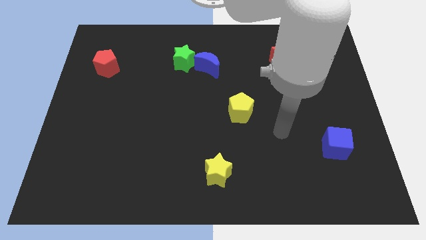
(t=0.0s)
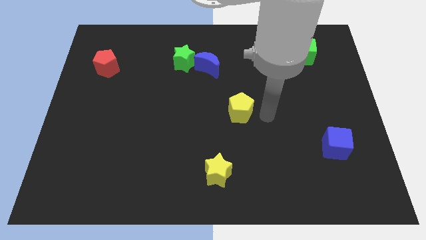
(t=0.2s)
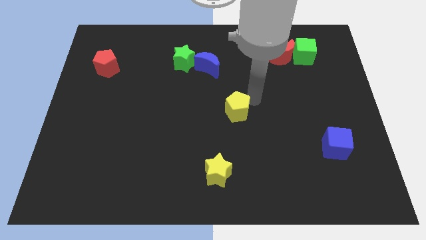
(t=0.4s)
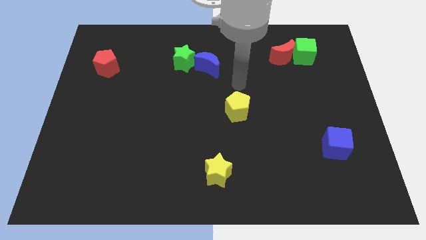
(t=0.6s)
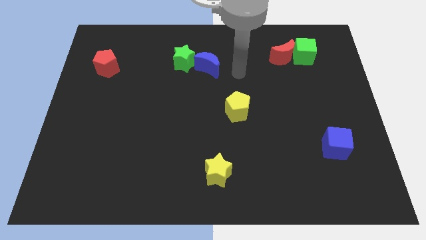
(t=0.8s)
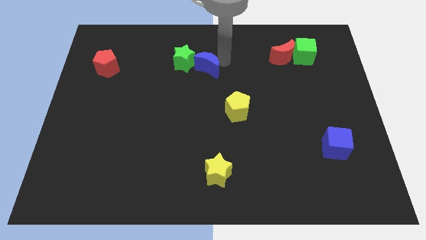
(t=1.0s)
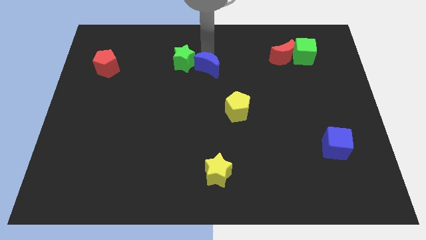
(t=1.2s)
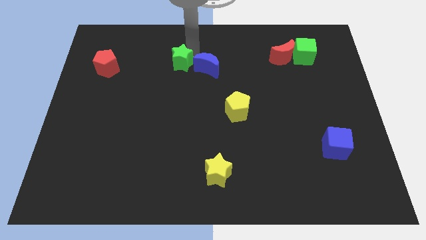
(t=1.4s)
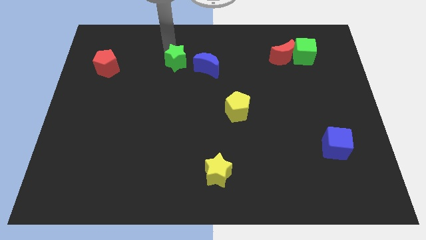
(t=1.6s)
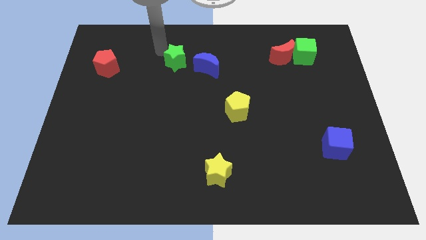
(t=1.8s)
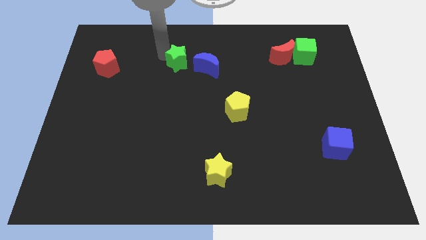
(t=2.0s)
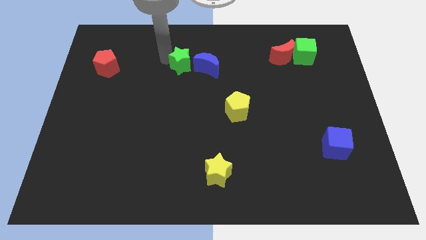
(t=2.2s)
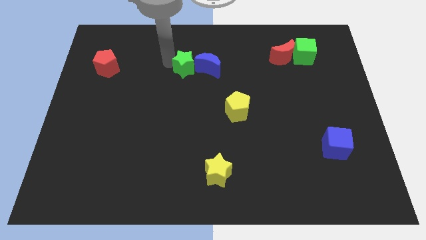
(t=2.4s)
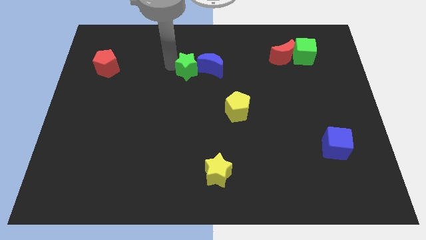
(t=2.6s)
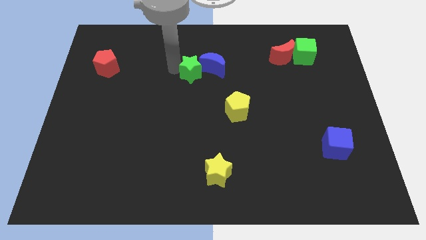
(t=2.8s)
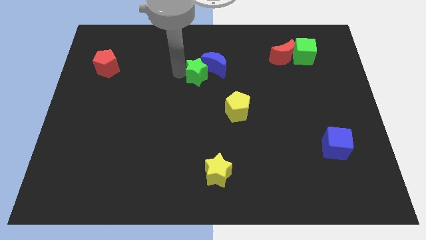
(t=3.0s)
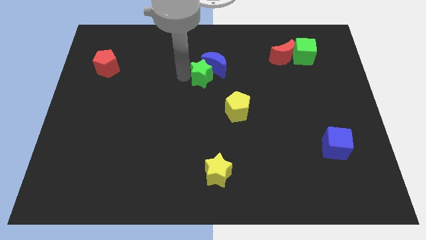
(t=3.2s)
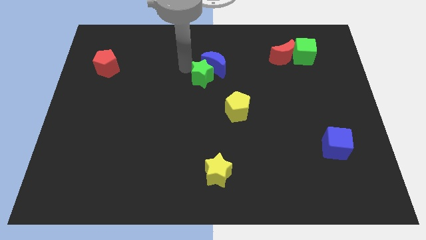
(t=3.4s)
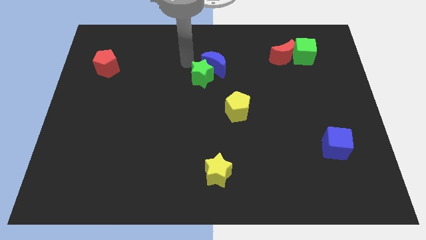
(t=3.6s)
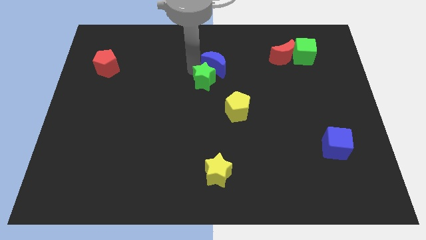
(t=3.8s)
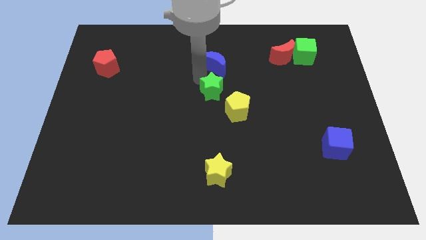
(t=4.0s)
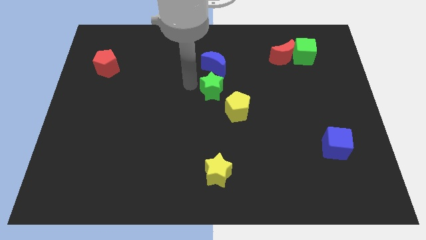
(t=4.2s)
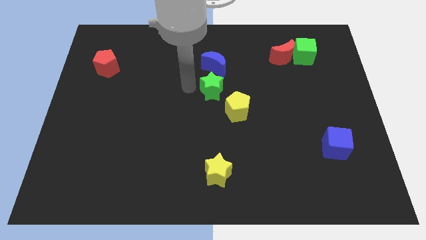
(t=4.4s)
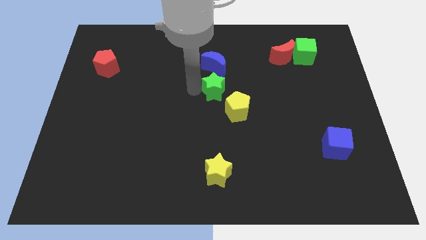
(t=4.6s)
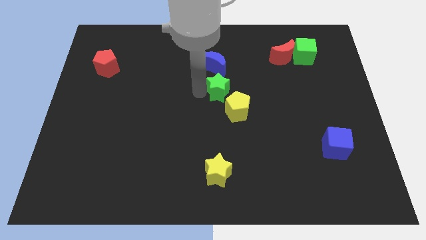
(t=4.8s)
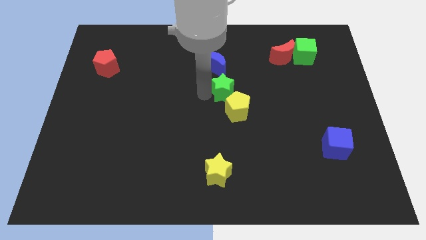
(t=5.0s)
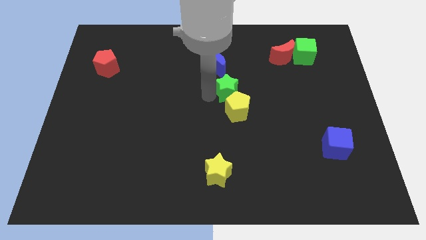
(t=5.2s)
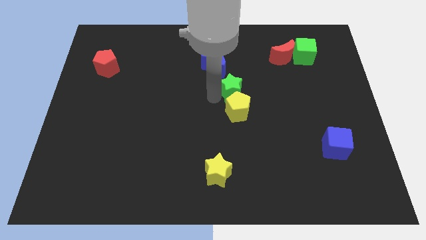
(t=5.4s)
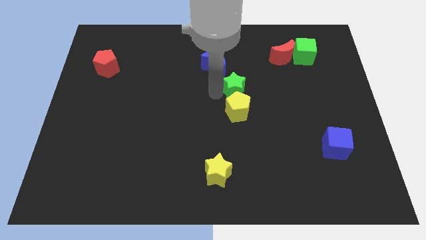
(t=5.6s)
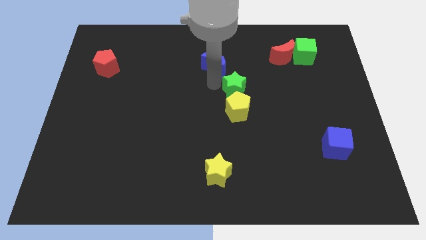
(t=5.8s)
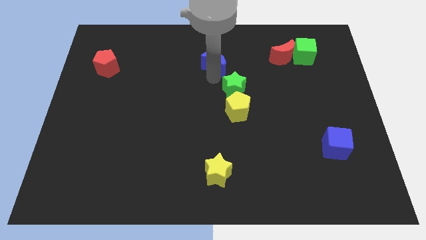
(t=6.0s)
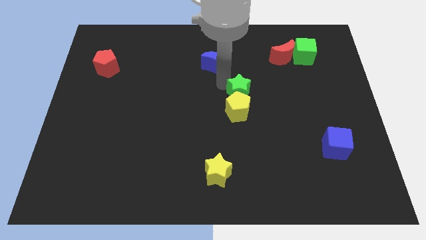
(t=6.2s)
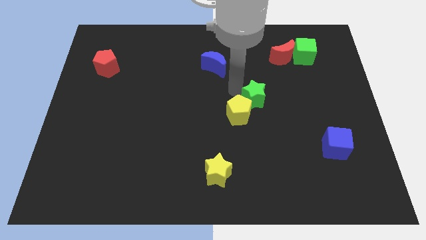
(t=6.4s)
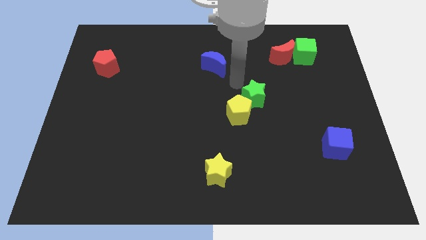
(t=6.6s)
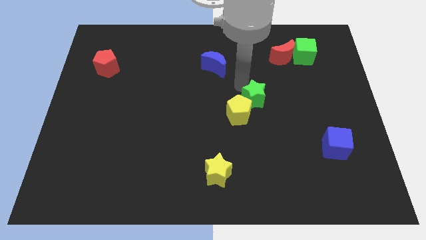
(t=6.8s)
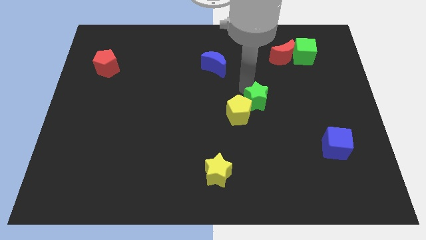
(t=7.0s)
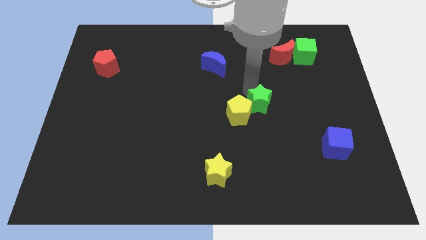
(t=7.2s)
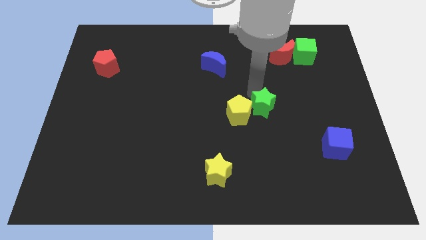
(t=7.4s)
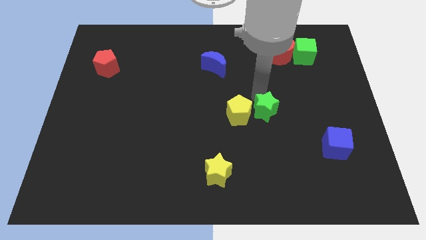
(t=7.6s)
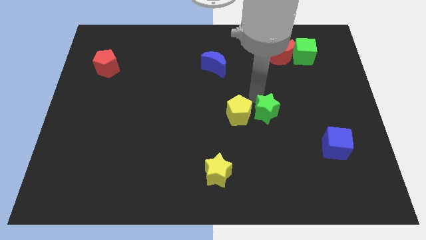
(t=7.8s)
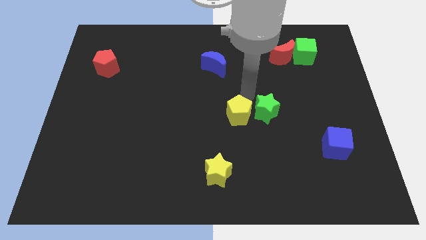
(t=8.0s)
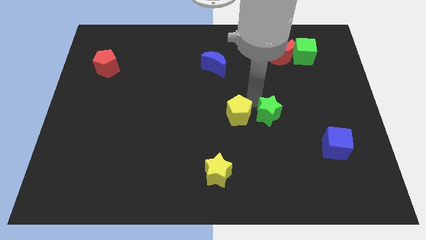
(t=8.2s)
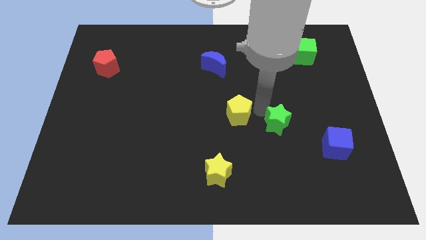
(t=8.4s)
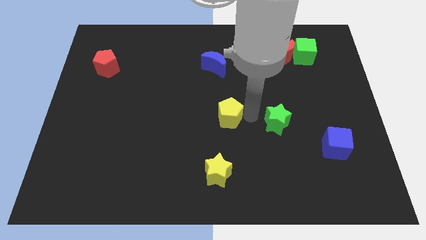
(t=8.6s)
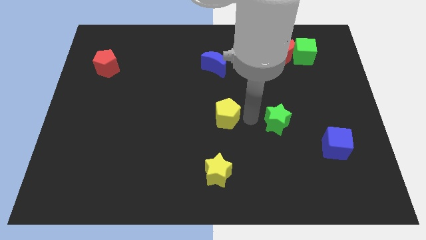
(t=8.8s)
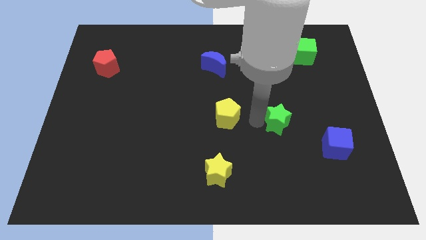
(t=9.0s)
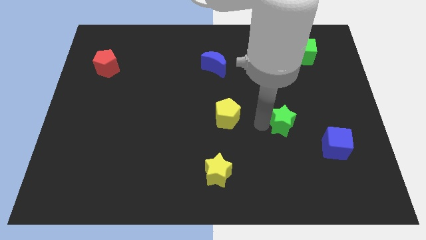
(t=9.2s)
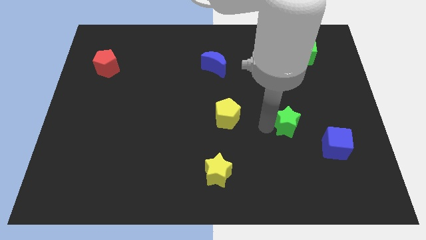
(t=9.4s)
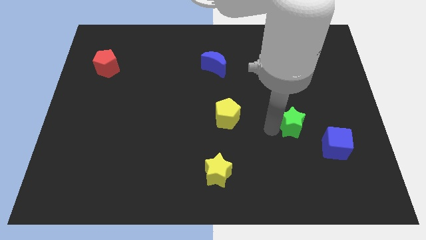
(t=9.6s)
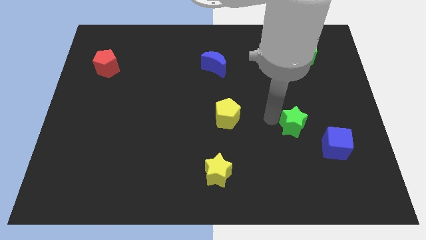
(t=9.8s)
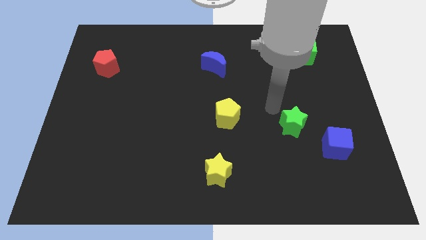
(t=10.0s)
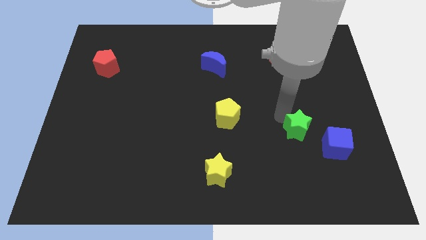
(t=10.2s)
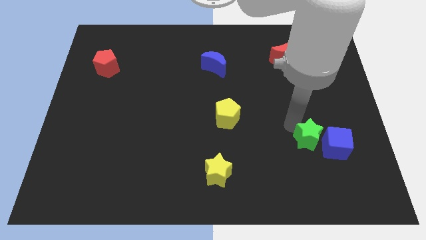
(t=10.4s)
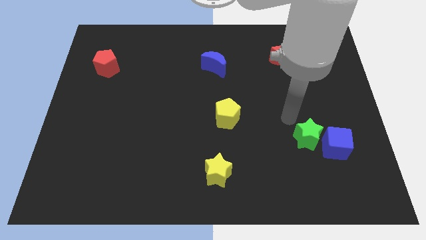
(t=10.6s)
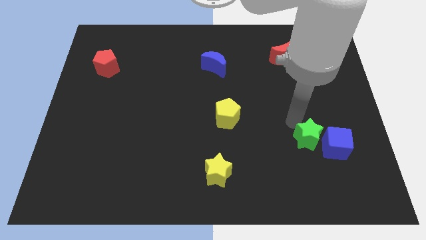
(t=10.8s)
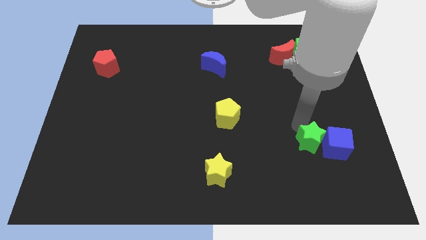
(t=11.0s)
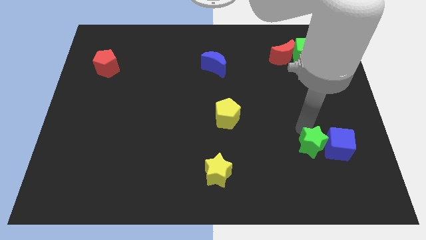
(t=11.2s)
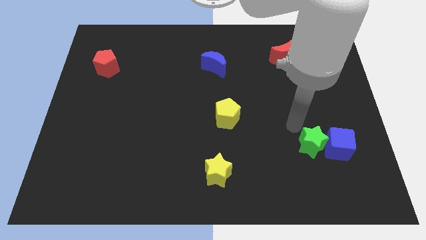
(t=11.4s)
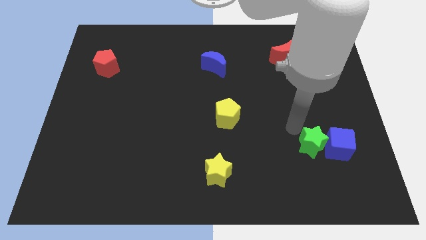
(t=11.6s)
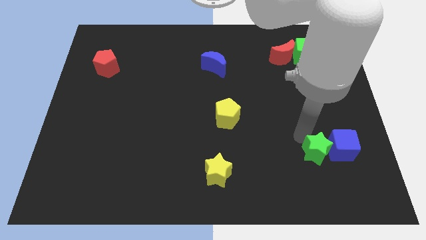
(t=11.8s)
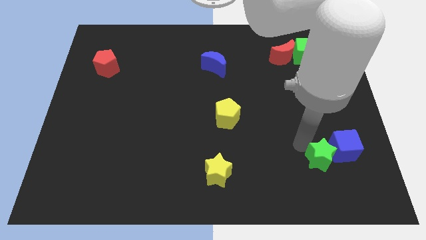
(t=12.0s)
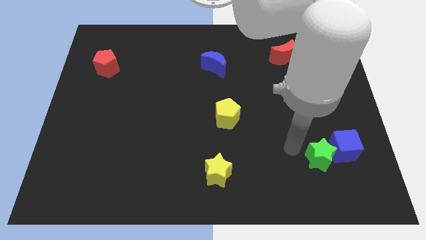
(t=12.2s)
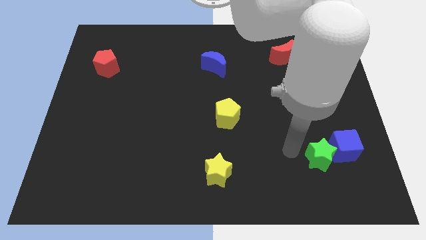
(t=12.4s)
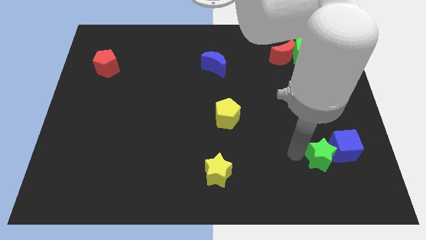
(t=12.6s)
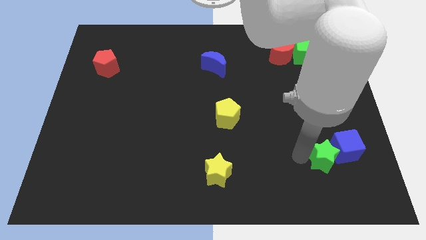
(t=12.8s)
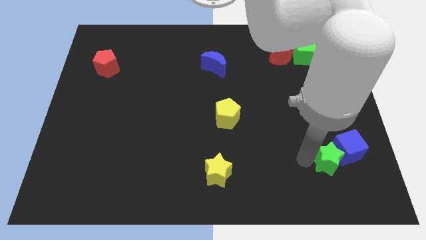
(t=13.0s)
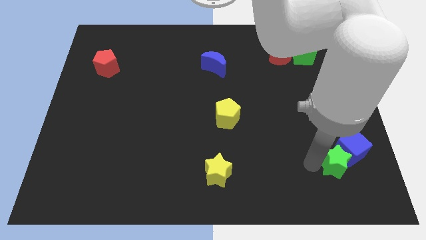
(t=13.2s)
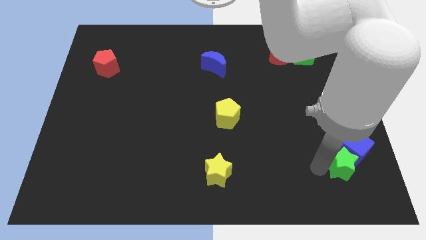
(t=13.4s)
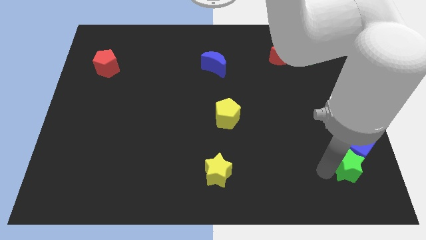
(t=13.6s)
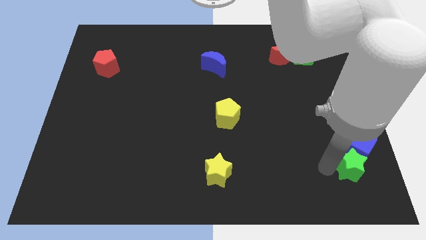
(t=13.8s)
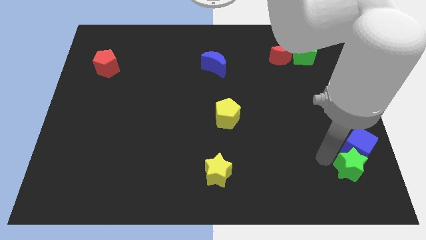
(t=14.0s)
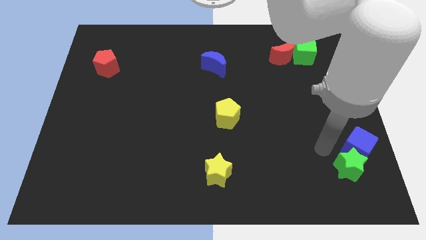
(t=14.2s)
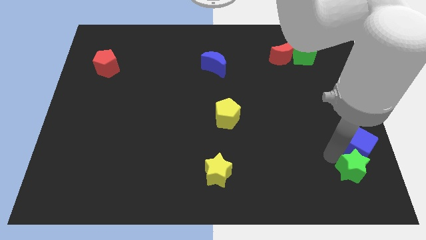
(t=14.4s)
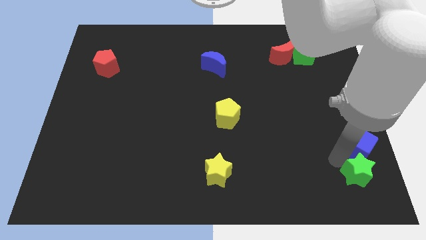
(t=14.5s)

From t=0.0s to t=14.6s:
move the green star to the bottom right of the board
